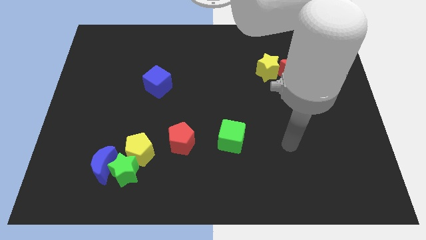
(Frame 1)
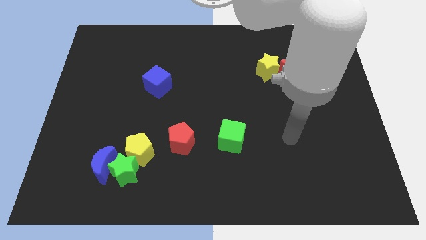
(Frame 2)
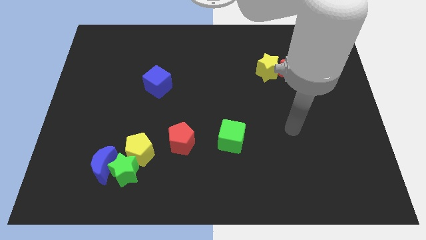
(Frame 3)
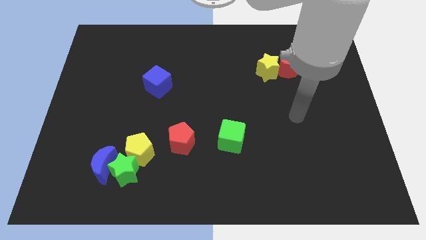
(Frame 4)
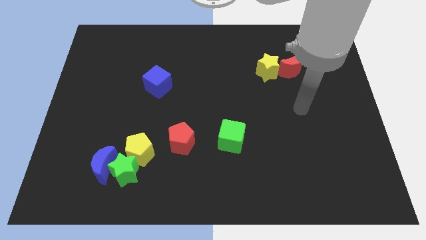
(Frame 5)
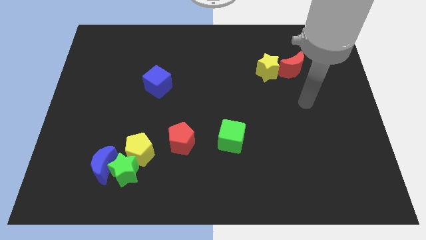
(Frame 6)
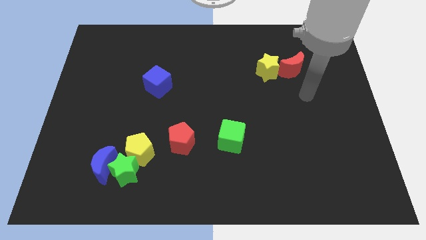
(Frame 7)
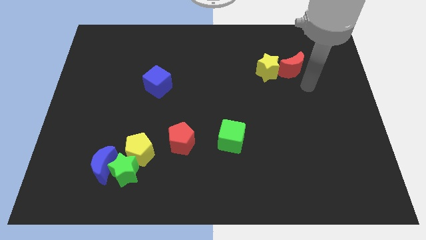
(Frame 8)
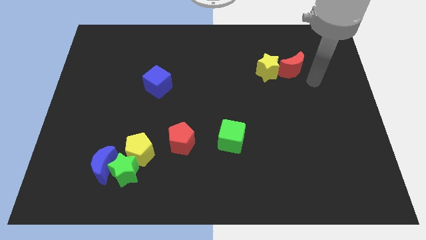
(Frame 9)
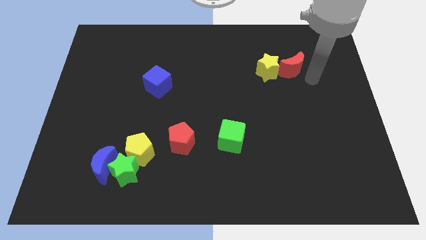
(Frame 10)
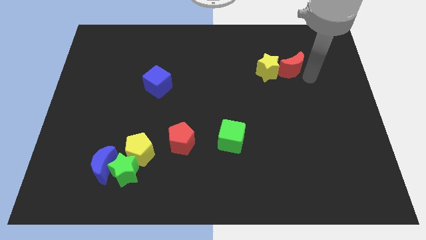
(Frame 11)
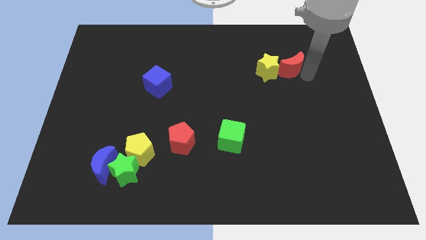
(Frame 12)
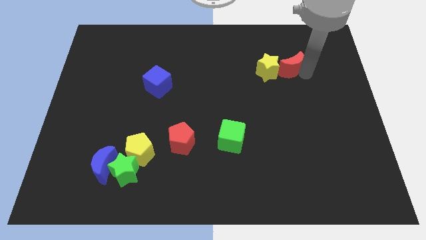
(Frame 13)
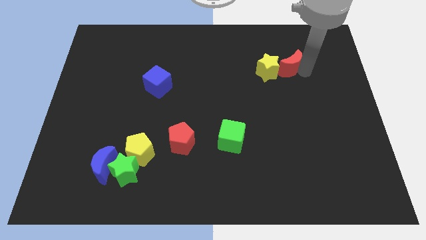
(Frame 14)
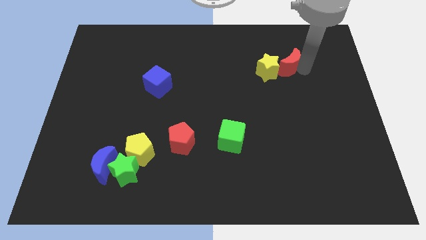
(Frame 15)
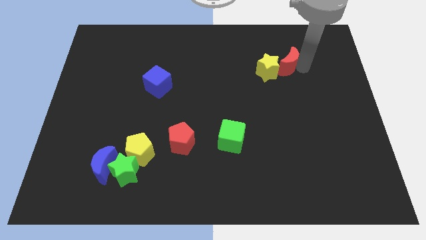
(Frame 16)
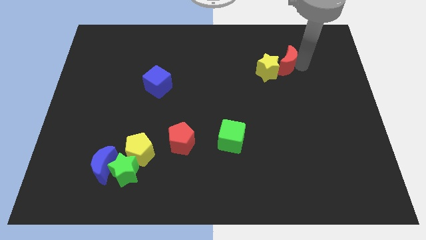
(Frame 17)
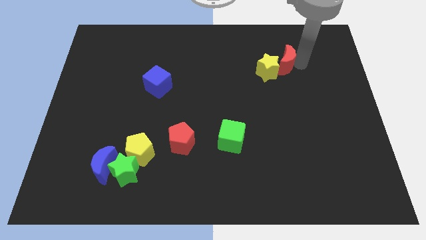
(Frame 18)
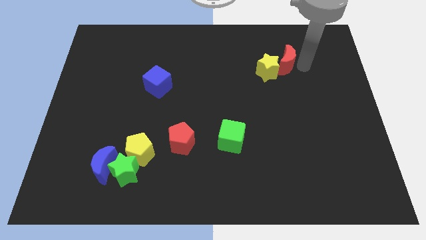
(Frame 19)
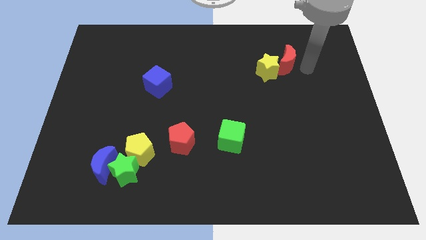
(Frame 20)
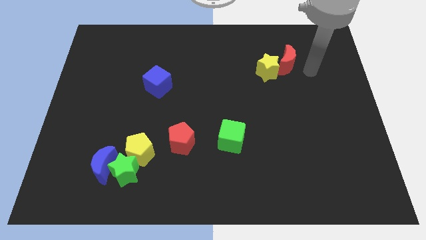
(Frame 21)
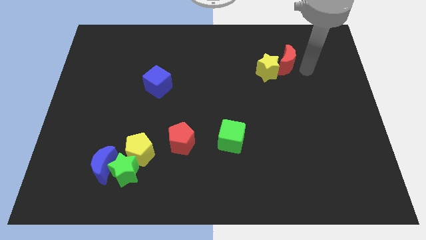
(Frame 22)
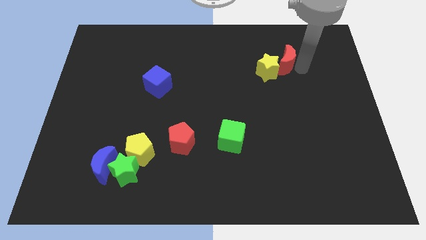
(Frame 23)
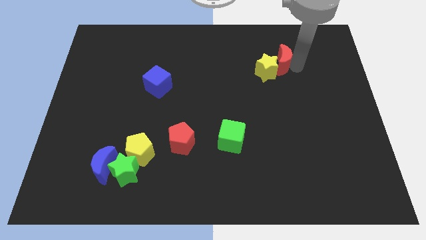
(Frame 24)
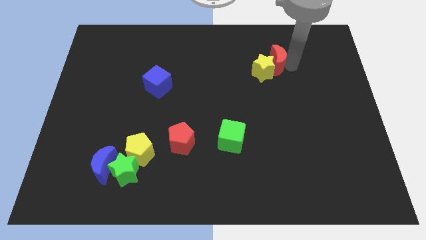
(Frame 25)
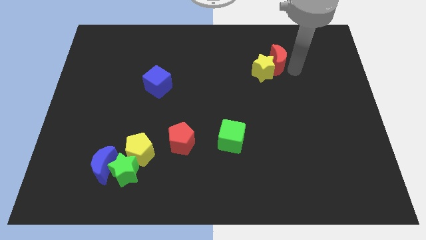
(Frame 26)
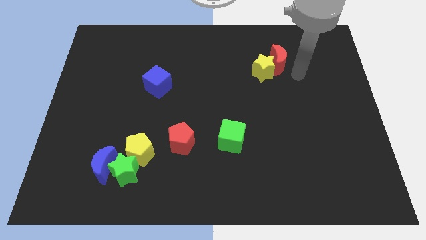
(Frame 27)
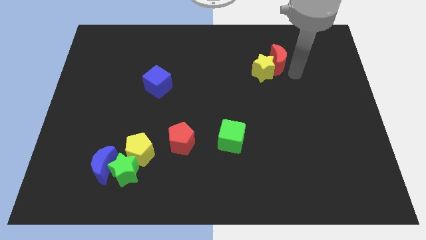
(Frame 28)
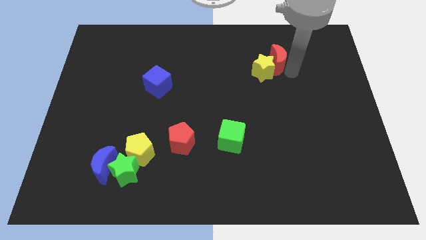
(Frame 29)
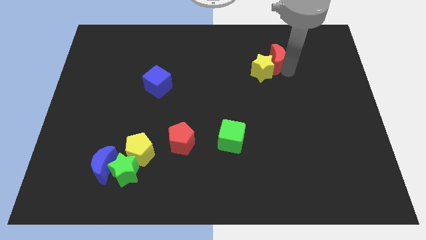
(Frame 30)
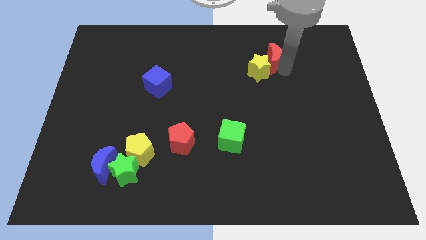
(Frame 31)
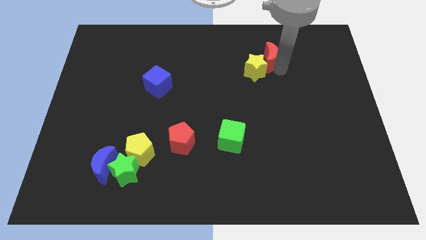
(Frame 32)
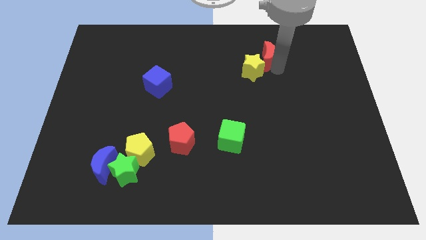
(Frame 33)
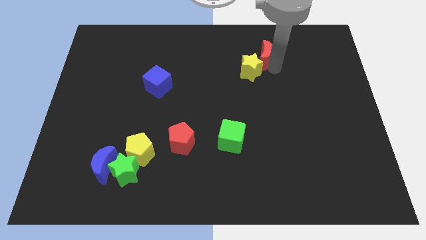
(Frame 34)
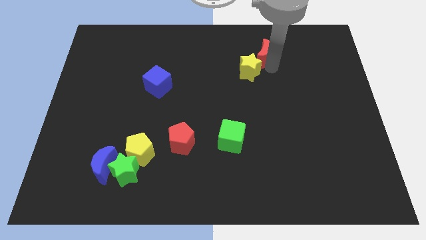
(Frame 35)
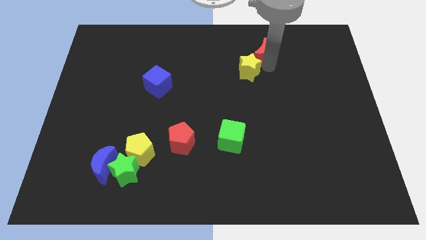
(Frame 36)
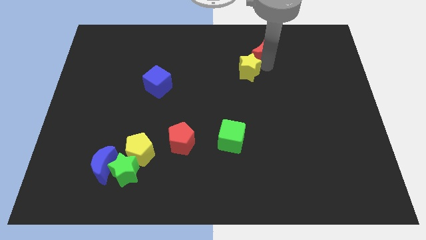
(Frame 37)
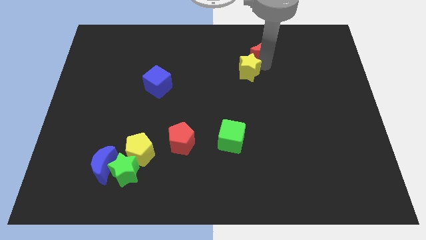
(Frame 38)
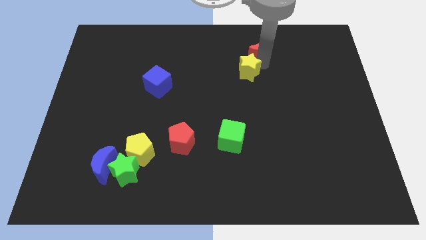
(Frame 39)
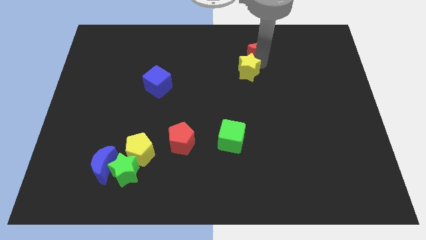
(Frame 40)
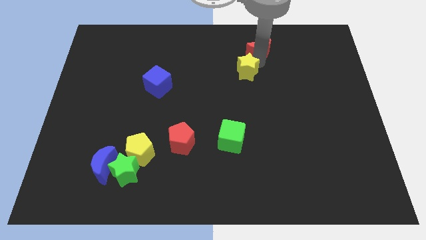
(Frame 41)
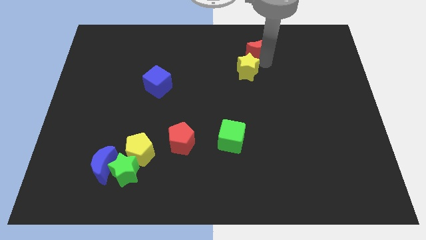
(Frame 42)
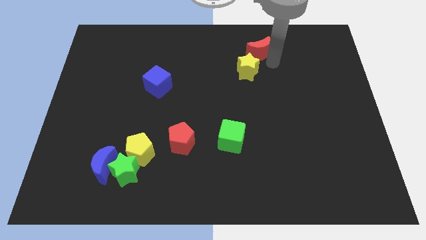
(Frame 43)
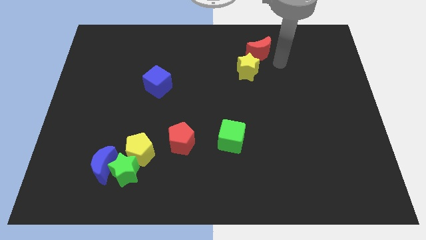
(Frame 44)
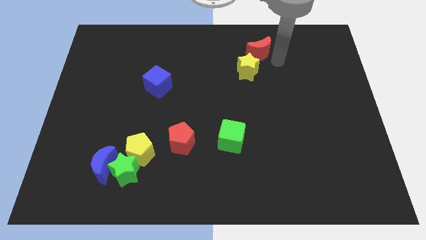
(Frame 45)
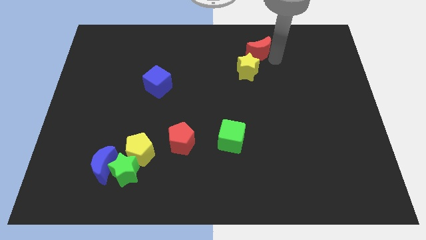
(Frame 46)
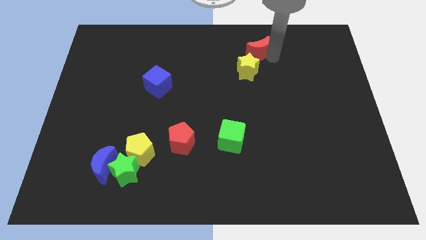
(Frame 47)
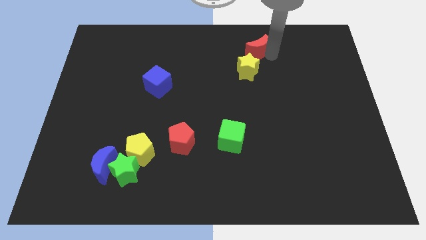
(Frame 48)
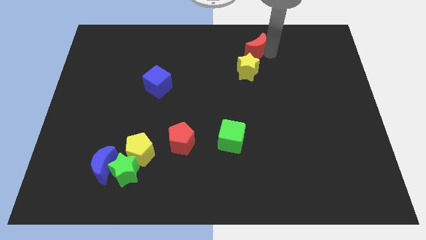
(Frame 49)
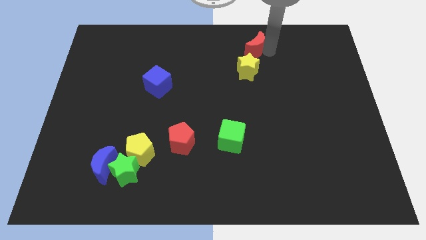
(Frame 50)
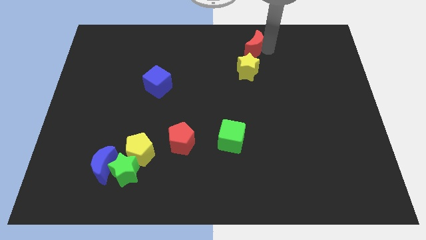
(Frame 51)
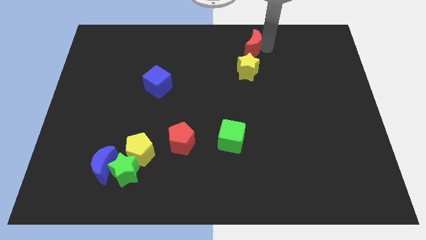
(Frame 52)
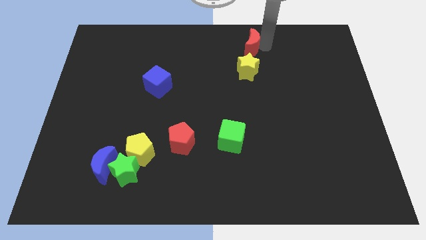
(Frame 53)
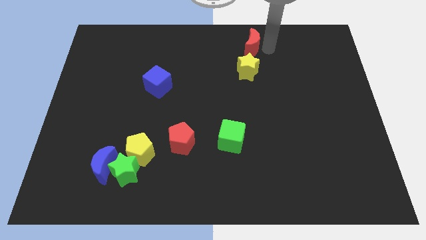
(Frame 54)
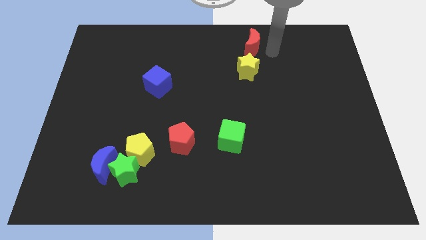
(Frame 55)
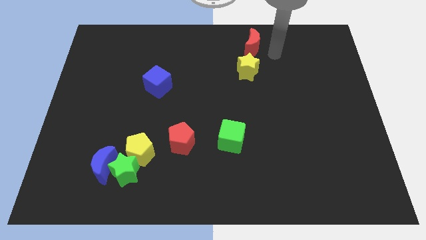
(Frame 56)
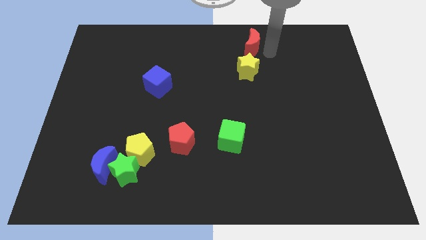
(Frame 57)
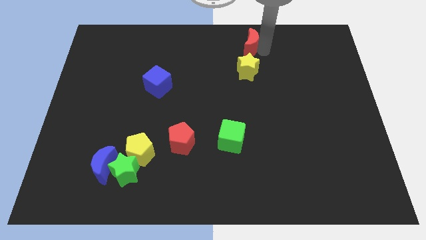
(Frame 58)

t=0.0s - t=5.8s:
move the red moon to the top
